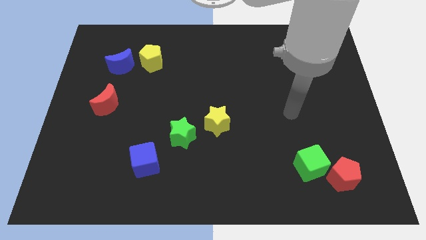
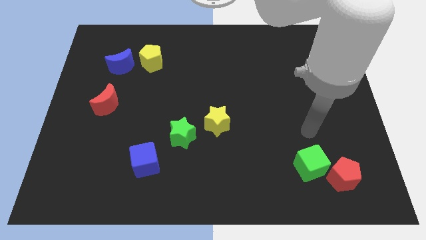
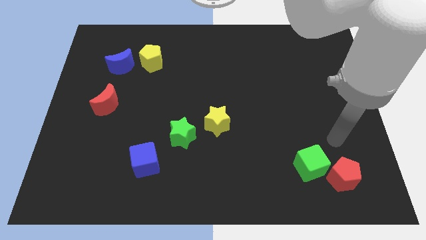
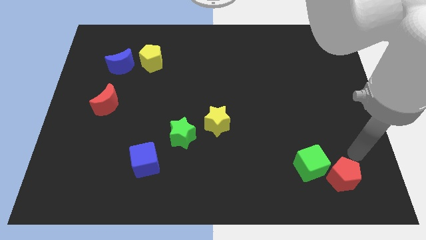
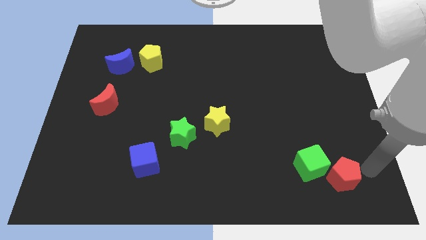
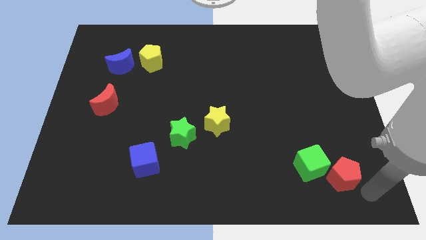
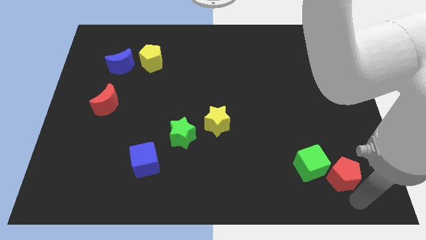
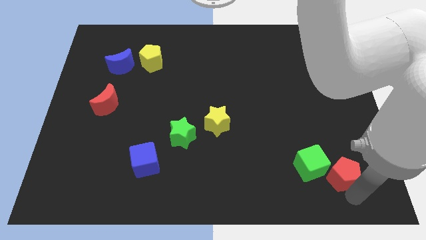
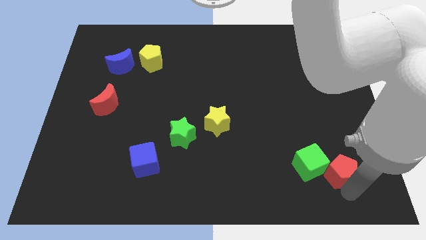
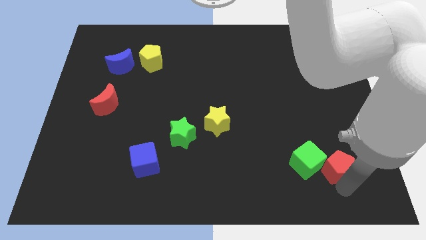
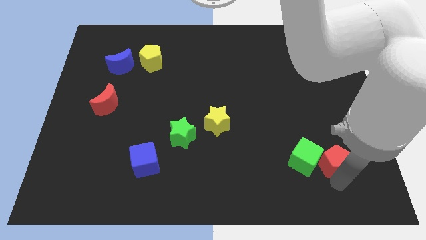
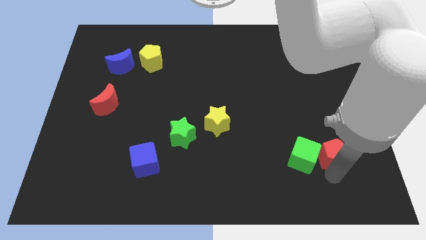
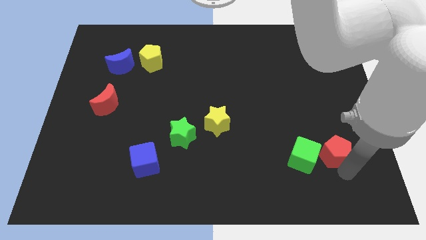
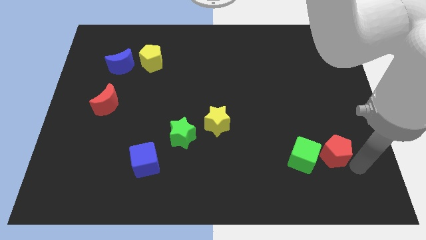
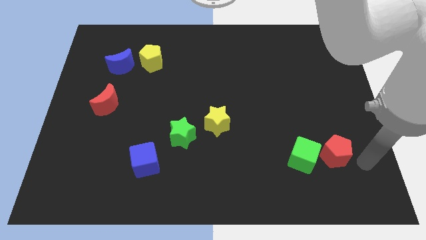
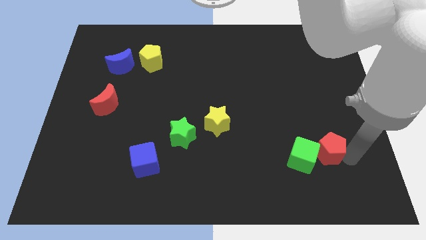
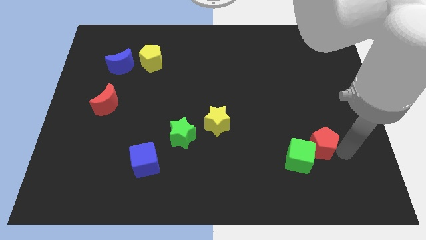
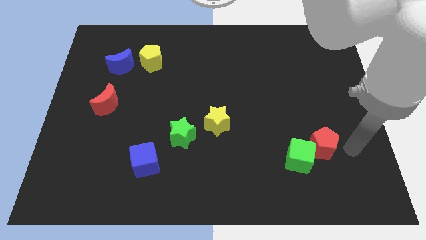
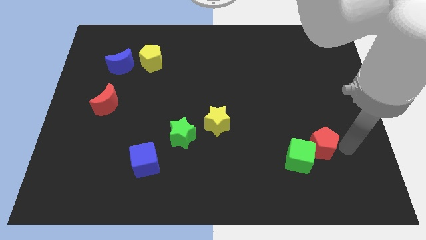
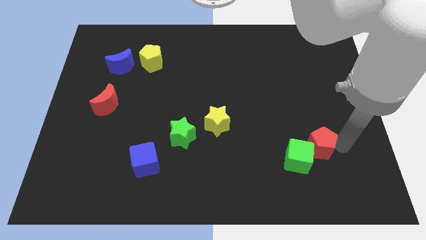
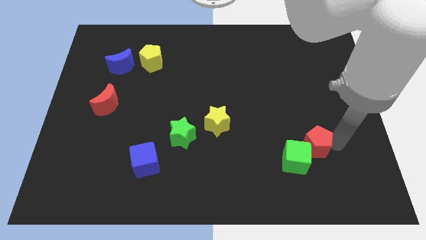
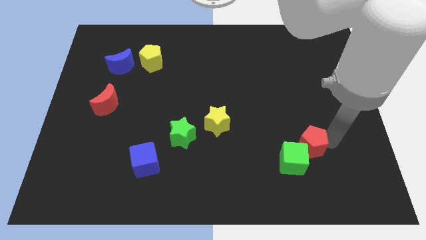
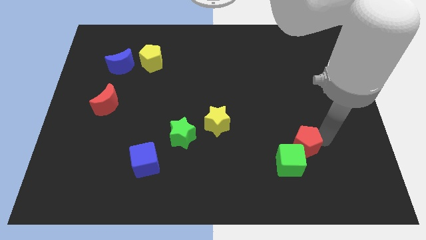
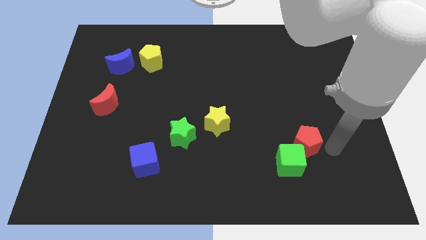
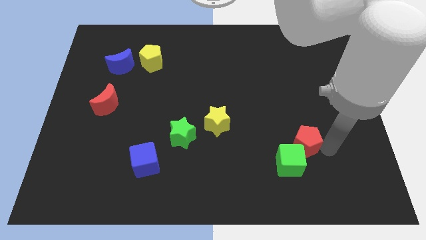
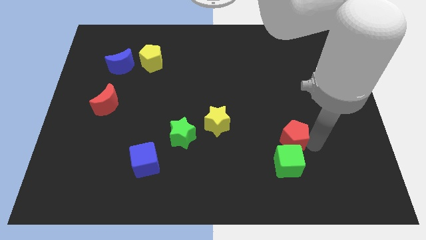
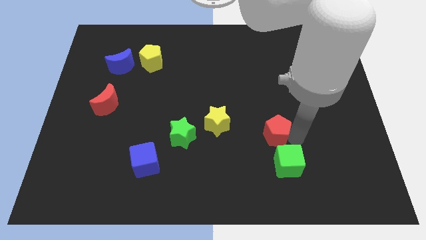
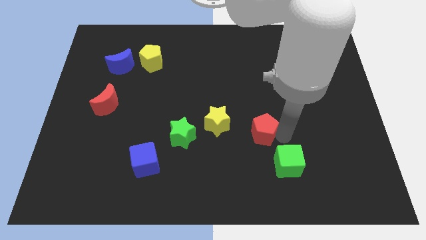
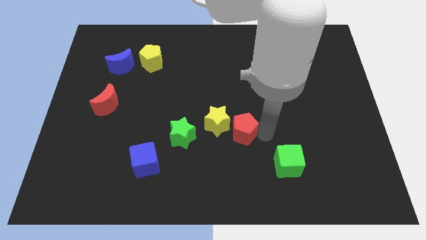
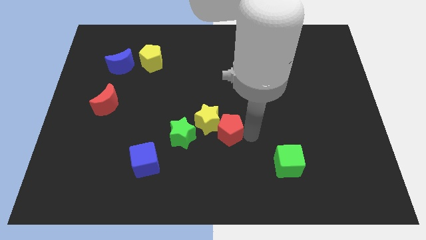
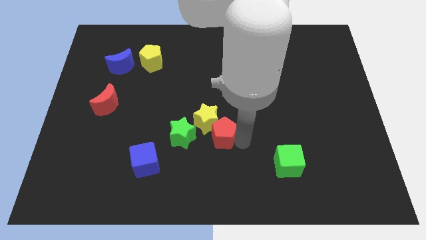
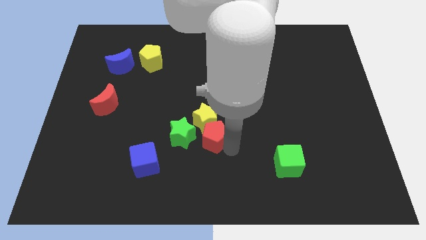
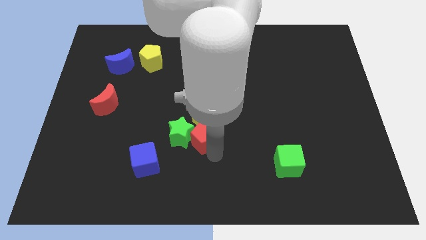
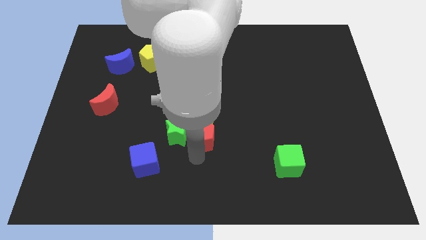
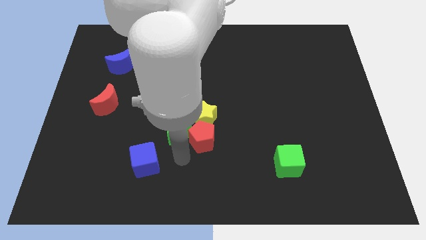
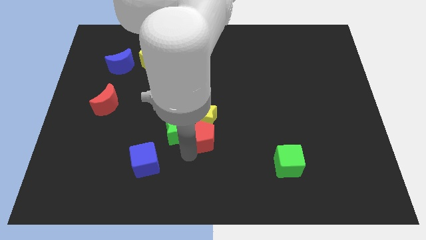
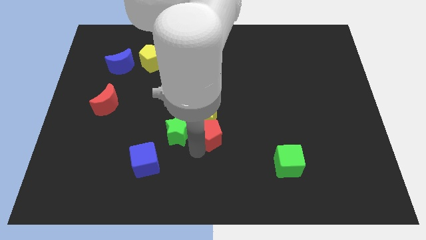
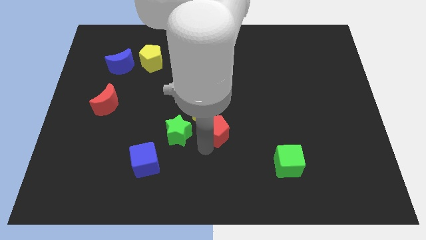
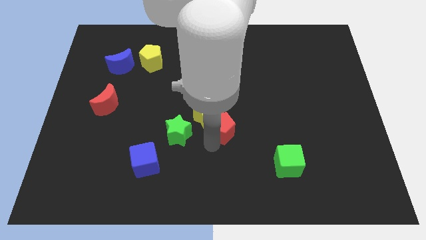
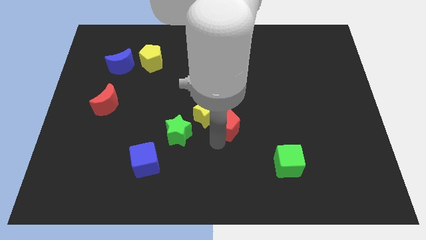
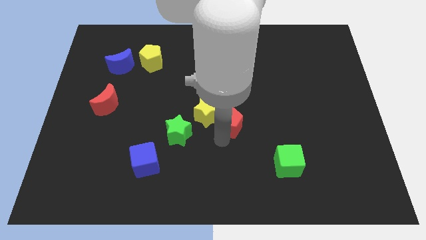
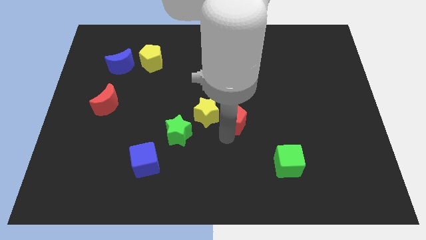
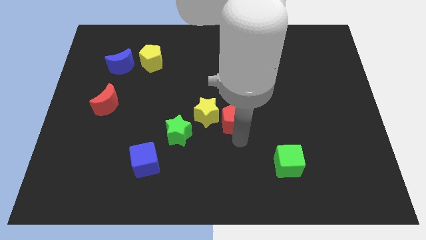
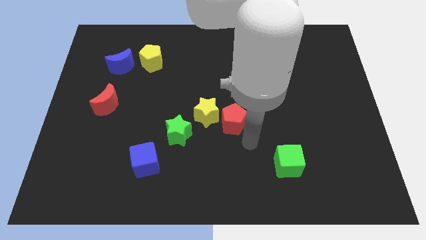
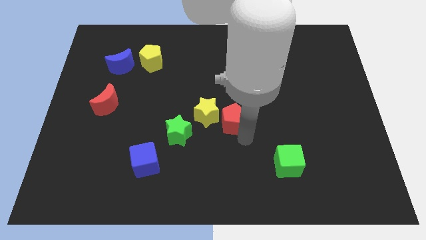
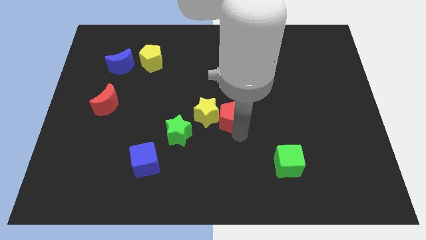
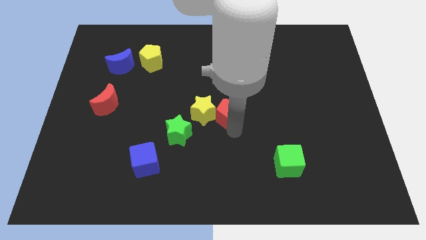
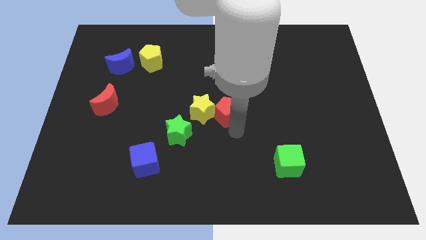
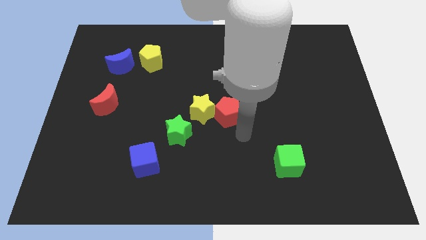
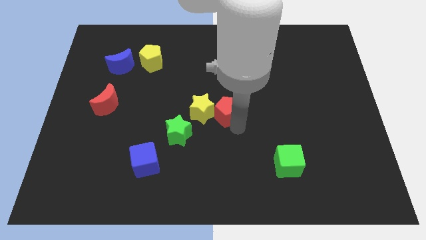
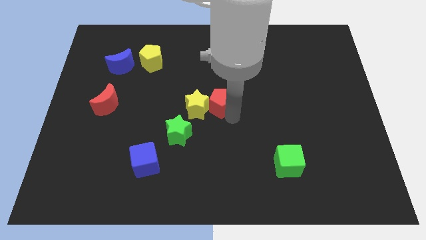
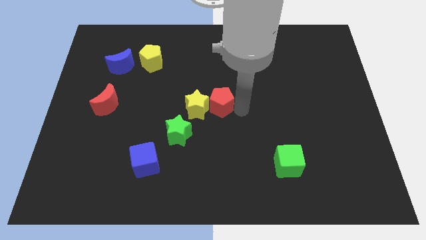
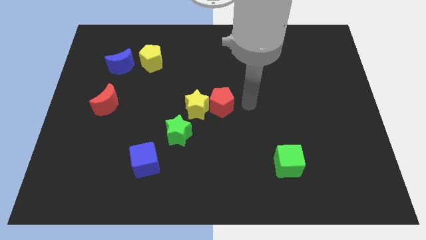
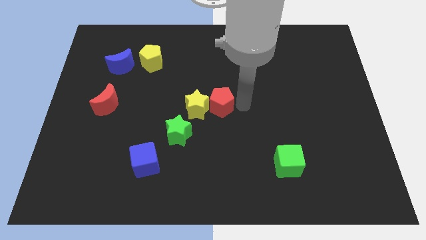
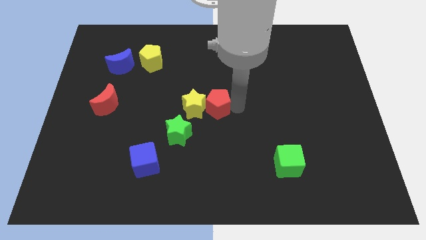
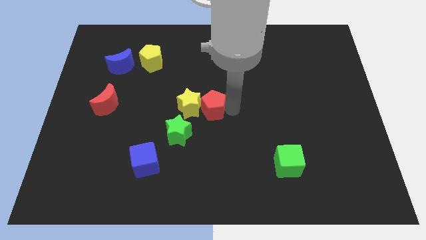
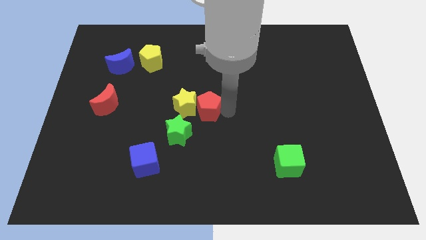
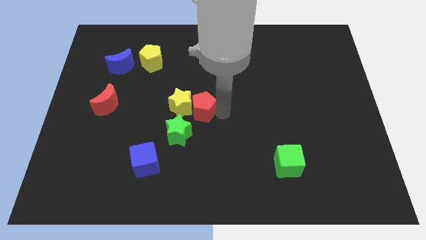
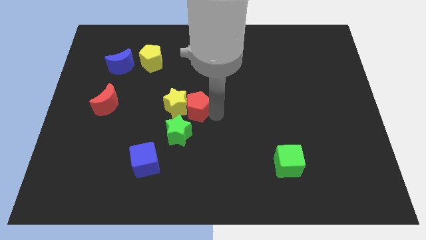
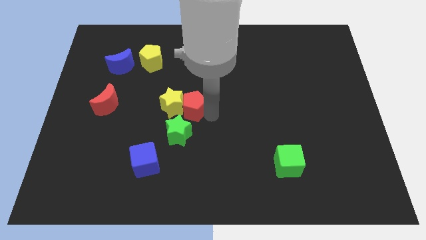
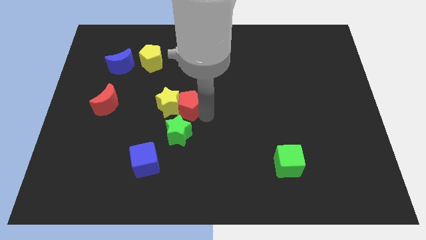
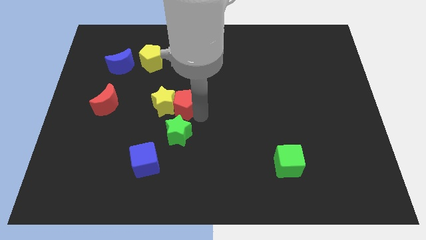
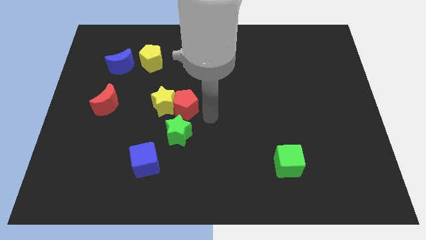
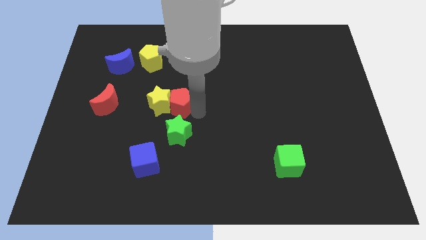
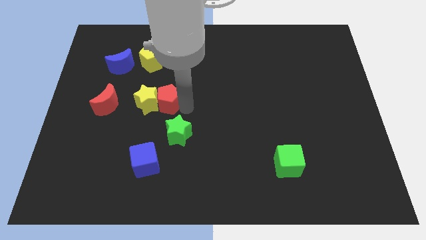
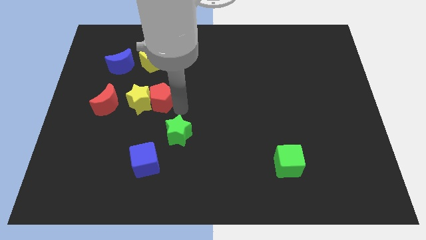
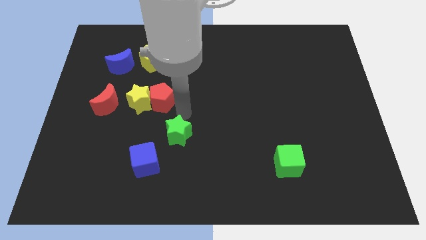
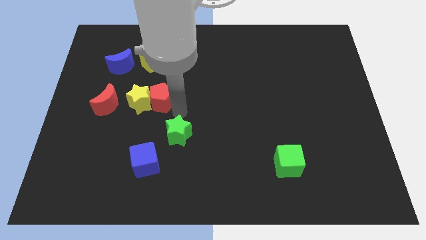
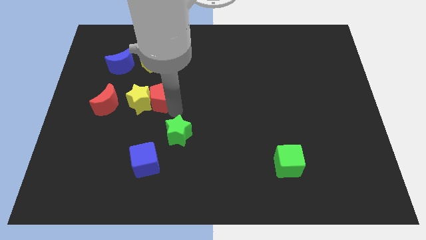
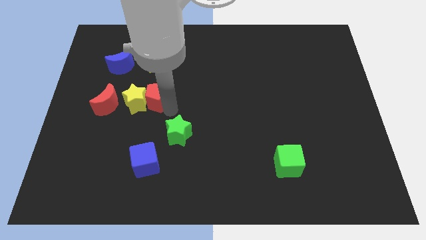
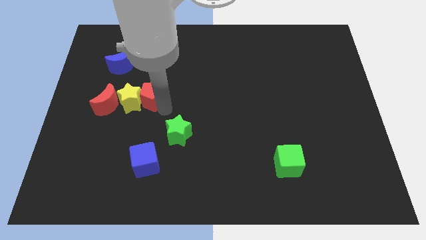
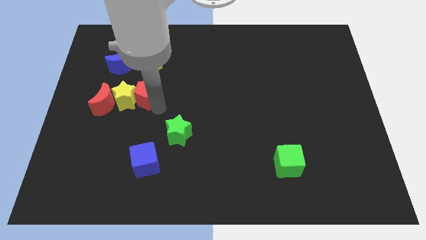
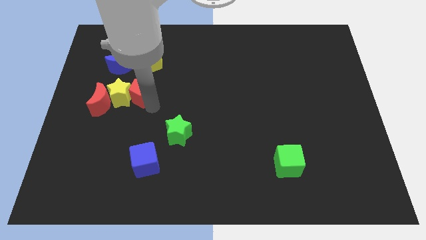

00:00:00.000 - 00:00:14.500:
push the red pentagon diagonally up and to the right of the red moon
